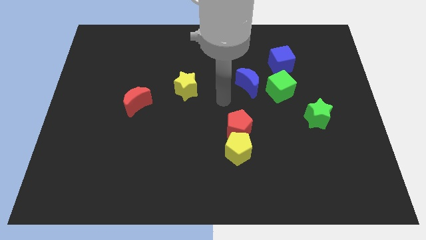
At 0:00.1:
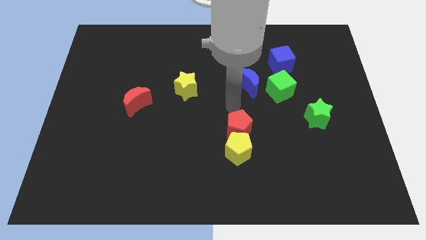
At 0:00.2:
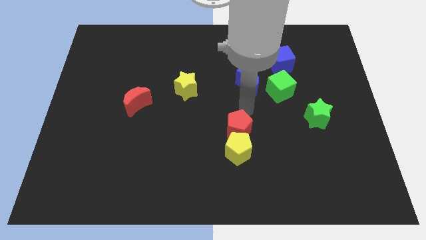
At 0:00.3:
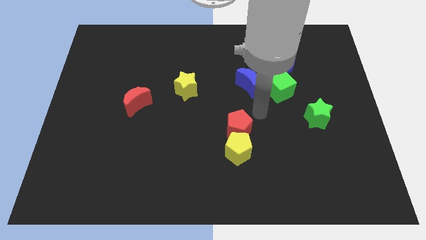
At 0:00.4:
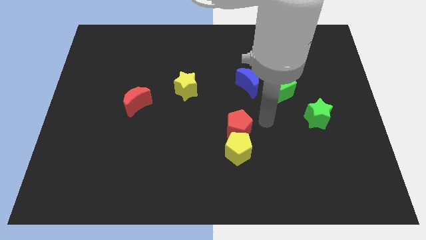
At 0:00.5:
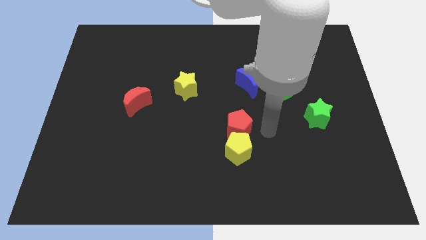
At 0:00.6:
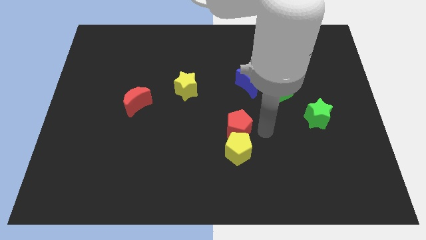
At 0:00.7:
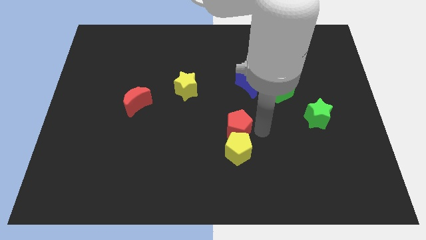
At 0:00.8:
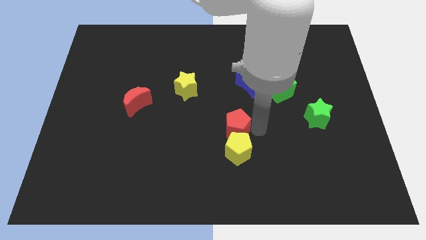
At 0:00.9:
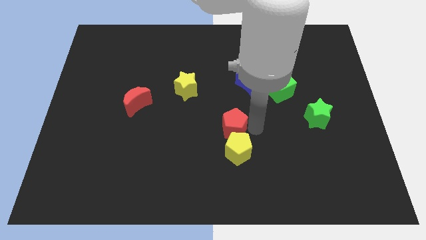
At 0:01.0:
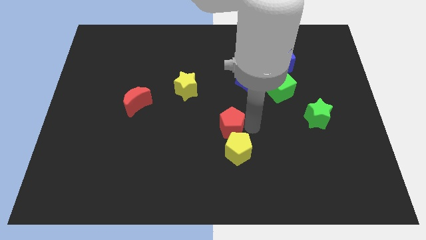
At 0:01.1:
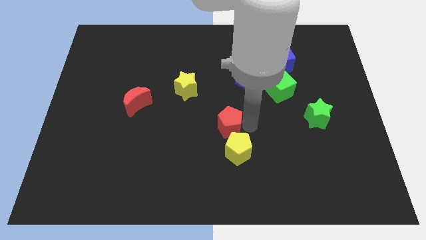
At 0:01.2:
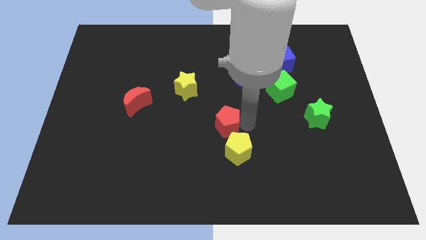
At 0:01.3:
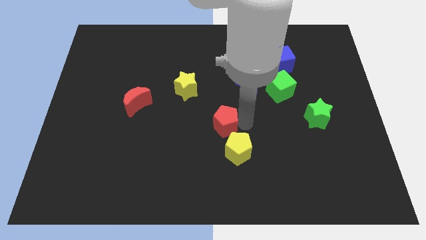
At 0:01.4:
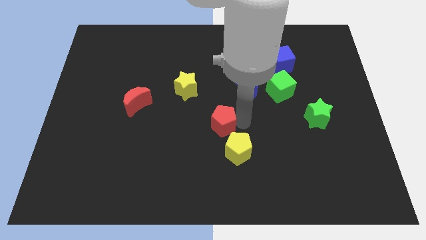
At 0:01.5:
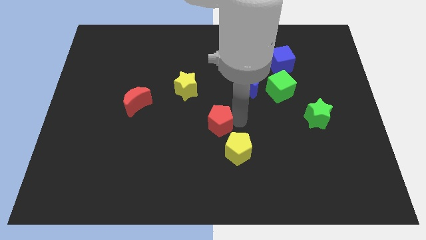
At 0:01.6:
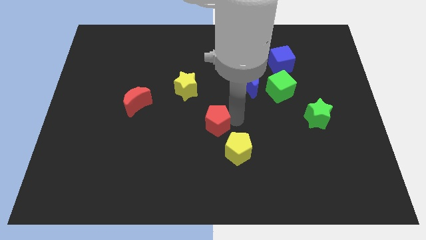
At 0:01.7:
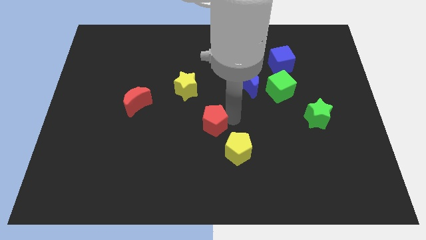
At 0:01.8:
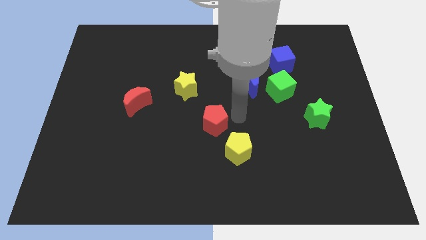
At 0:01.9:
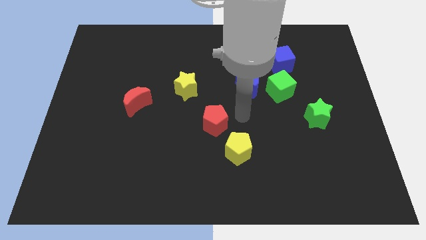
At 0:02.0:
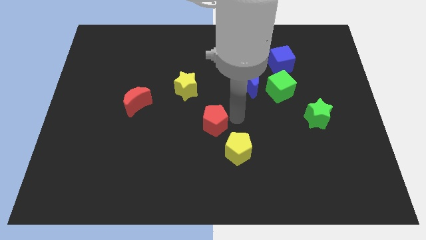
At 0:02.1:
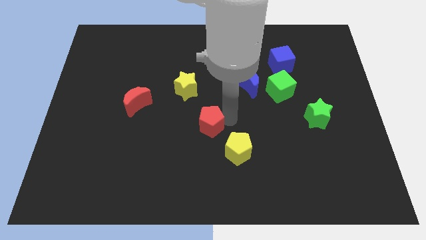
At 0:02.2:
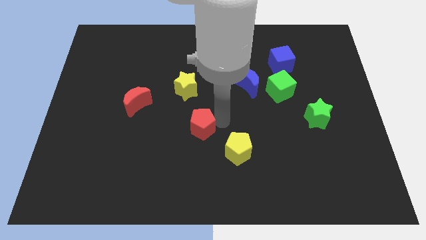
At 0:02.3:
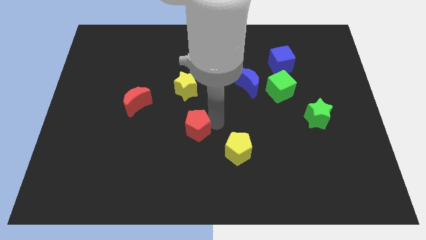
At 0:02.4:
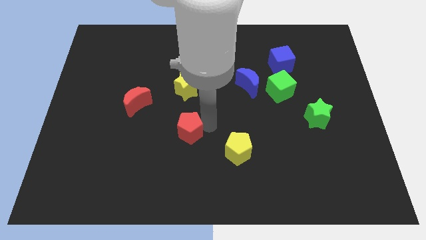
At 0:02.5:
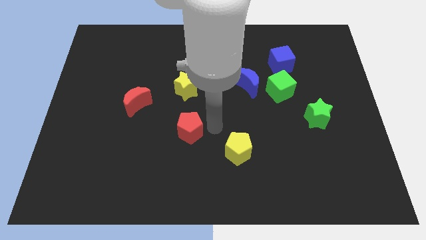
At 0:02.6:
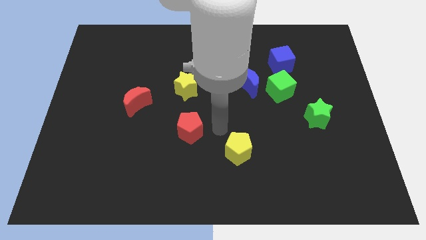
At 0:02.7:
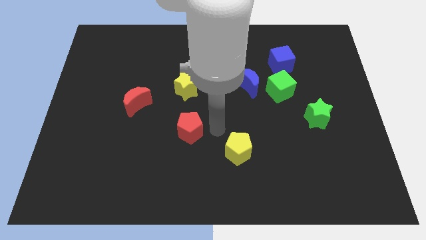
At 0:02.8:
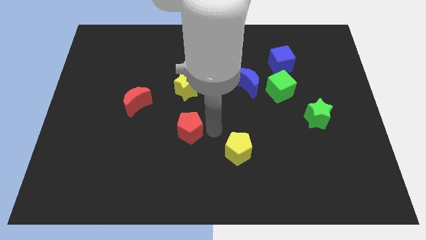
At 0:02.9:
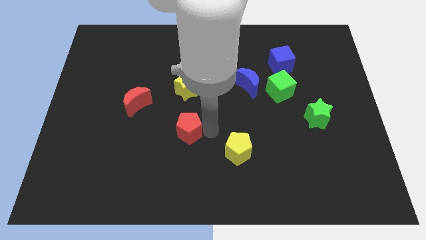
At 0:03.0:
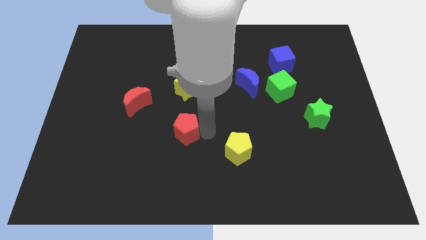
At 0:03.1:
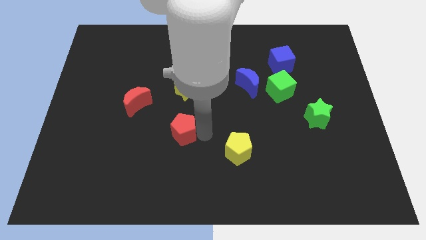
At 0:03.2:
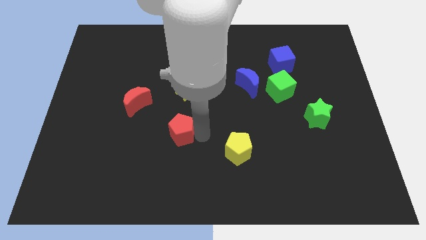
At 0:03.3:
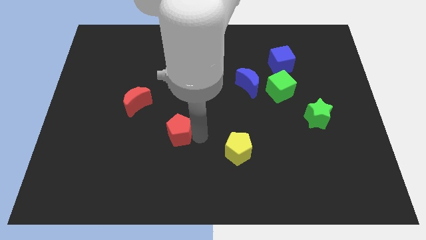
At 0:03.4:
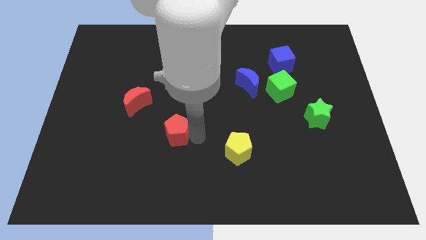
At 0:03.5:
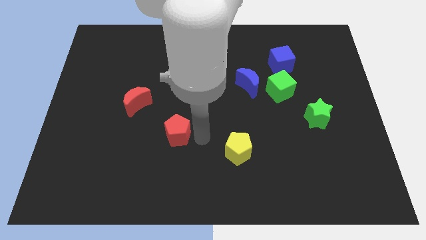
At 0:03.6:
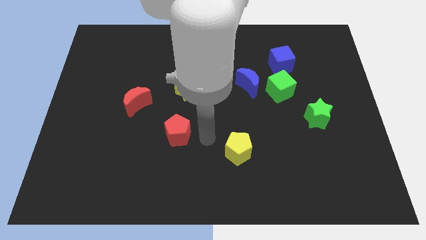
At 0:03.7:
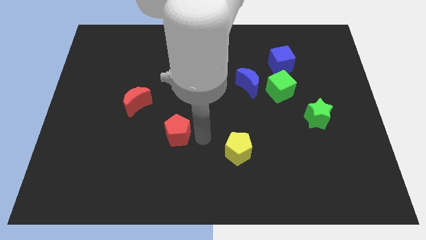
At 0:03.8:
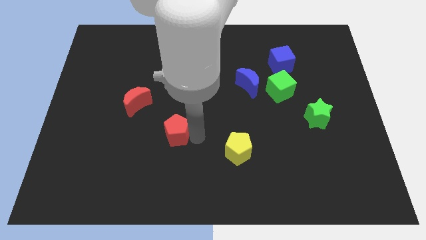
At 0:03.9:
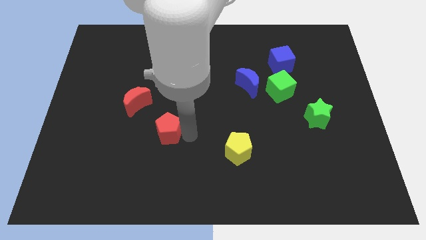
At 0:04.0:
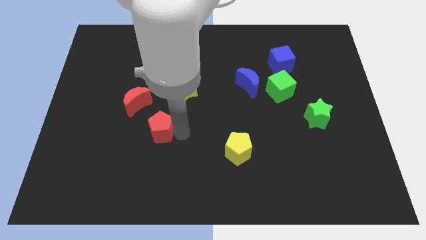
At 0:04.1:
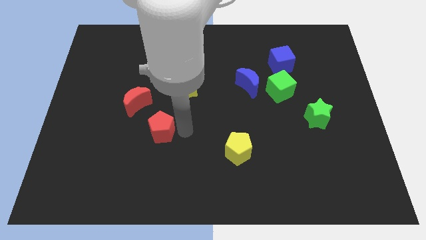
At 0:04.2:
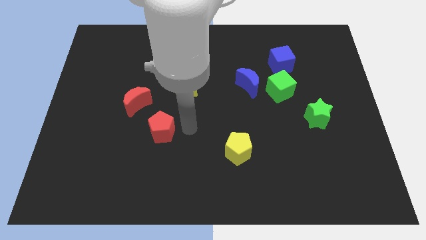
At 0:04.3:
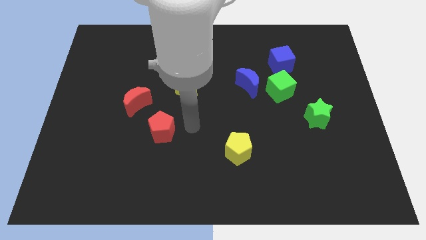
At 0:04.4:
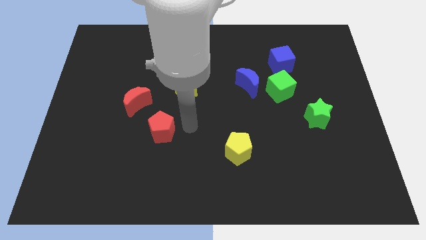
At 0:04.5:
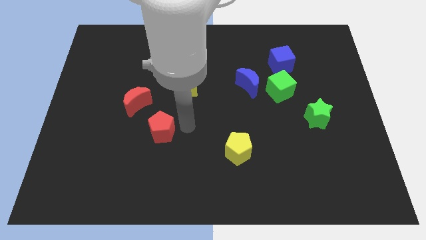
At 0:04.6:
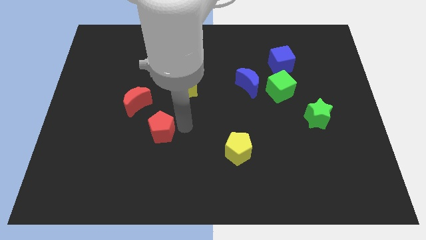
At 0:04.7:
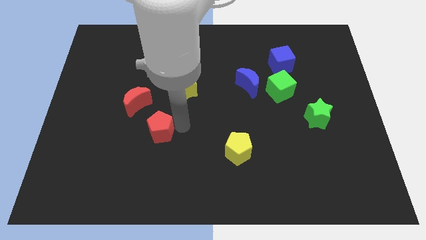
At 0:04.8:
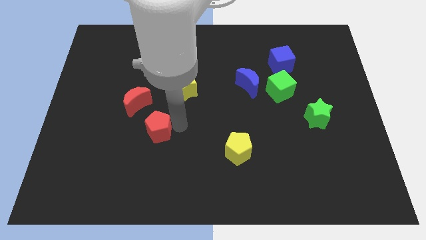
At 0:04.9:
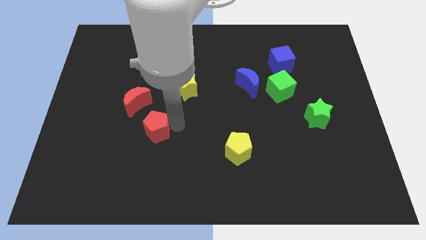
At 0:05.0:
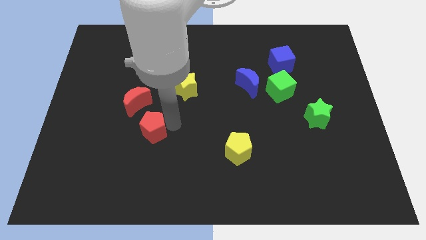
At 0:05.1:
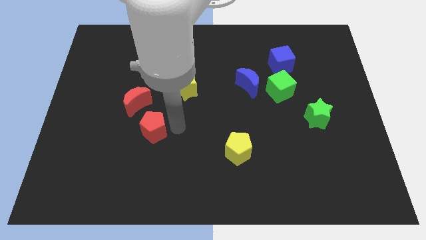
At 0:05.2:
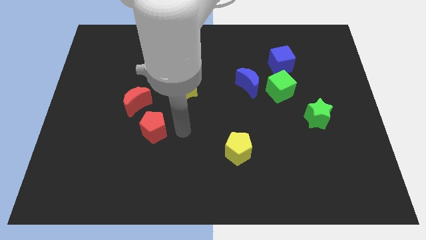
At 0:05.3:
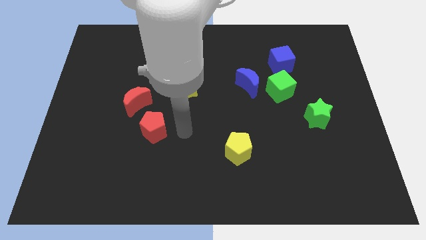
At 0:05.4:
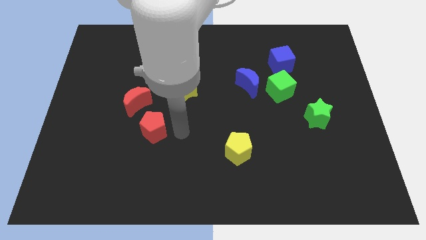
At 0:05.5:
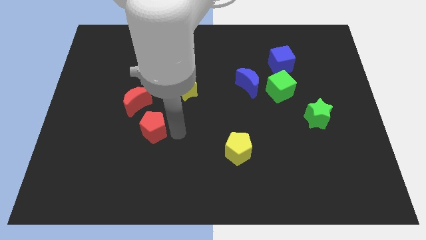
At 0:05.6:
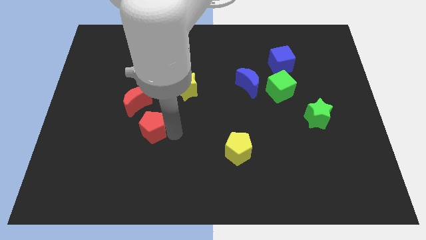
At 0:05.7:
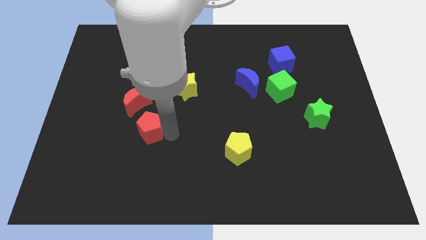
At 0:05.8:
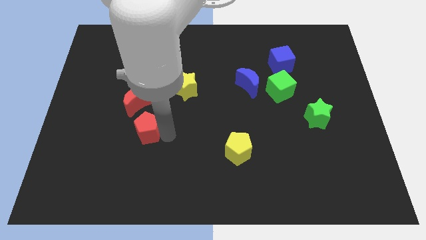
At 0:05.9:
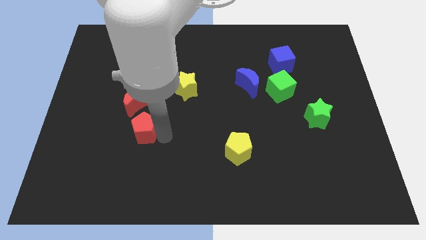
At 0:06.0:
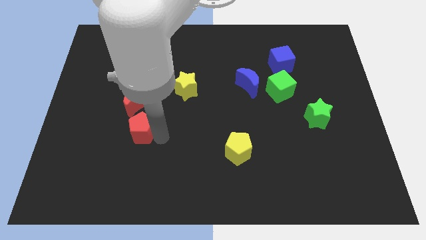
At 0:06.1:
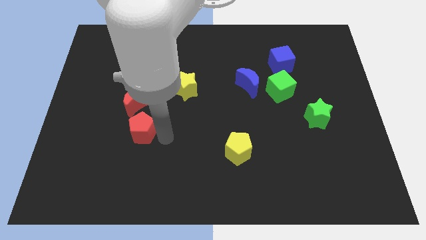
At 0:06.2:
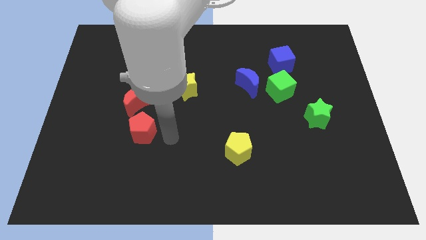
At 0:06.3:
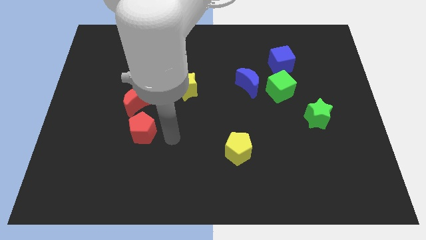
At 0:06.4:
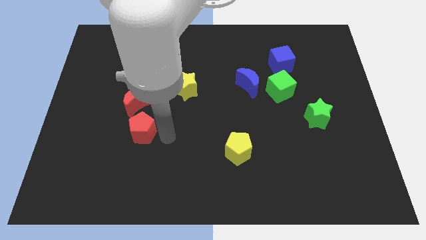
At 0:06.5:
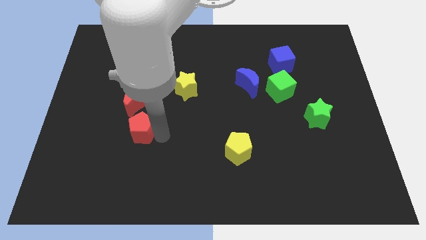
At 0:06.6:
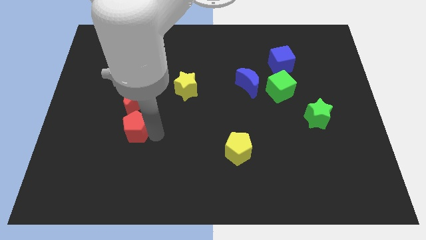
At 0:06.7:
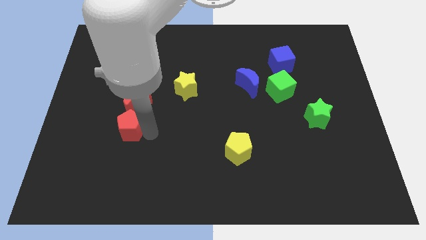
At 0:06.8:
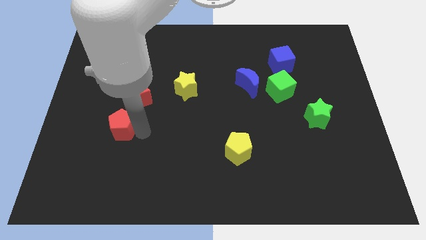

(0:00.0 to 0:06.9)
move the red pentagon to the bottom left side of the red moon
